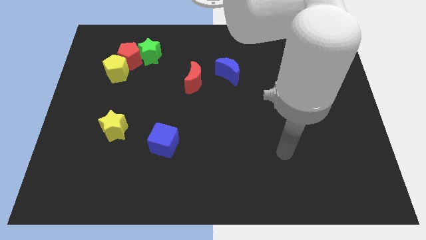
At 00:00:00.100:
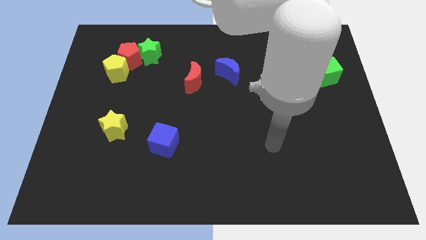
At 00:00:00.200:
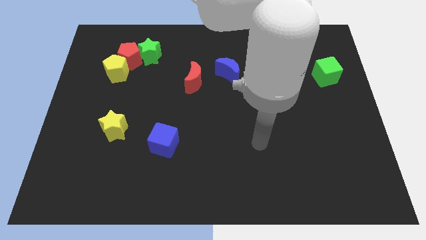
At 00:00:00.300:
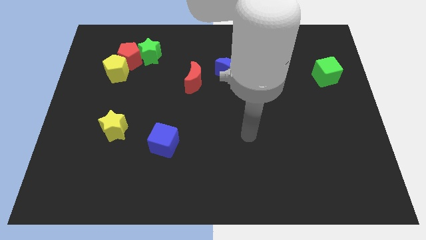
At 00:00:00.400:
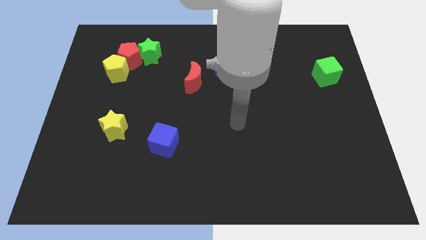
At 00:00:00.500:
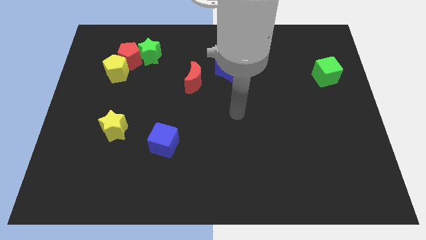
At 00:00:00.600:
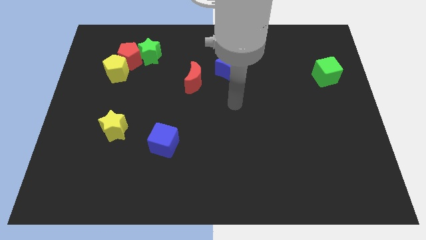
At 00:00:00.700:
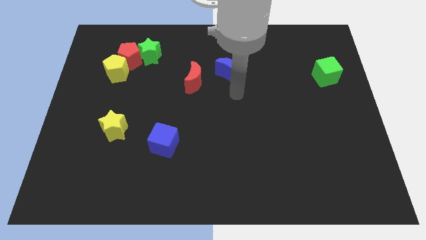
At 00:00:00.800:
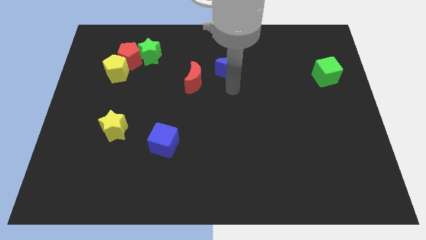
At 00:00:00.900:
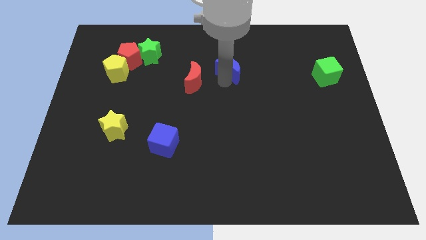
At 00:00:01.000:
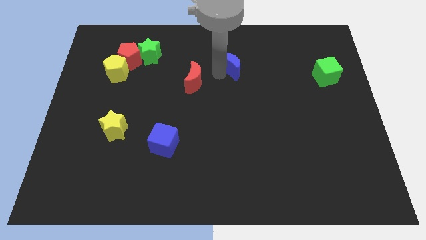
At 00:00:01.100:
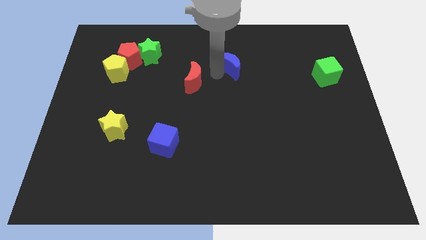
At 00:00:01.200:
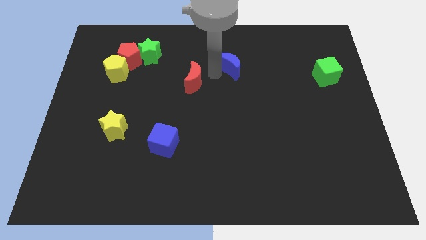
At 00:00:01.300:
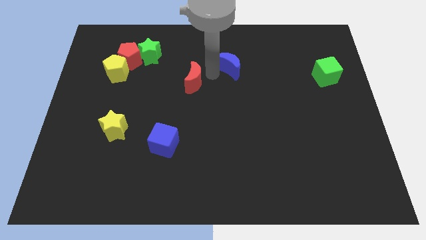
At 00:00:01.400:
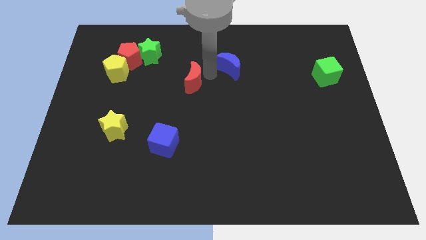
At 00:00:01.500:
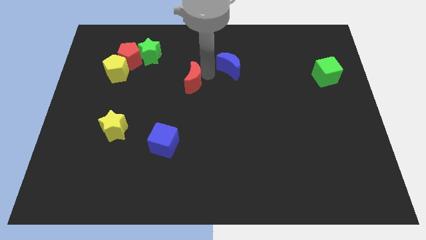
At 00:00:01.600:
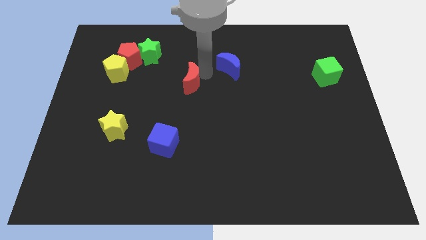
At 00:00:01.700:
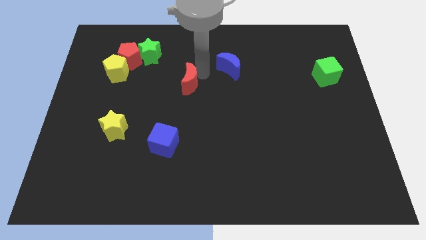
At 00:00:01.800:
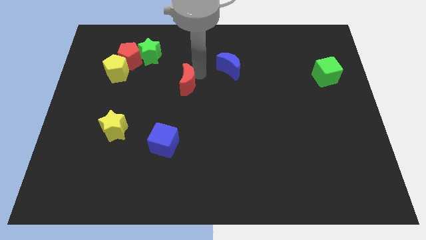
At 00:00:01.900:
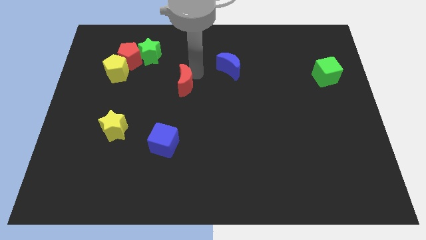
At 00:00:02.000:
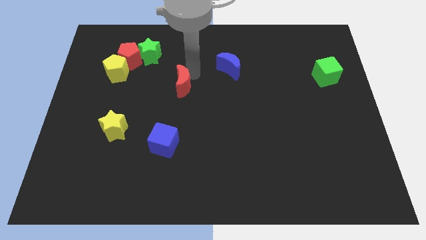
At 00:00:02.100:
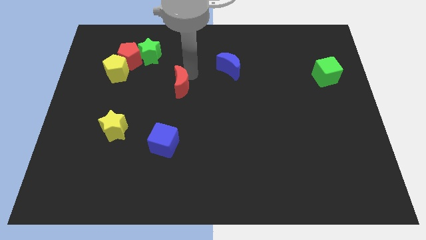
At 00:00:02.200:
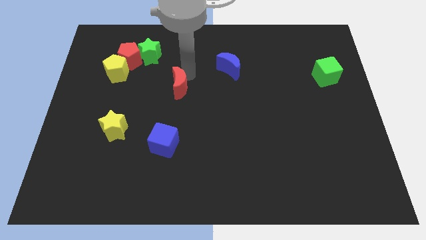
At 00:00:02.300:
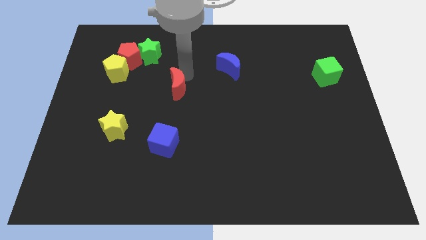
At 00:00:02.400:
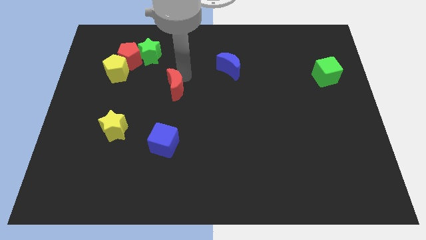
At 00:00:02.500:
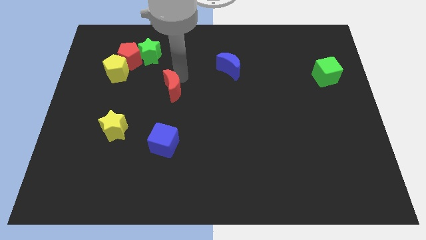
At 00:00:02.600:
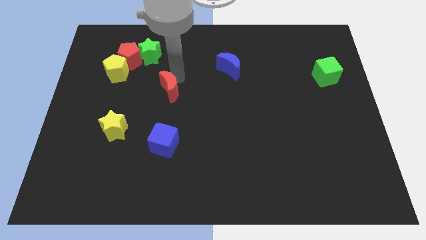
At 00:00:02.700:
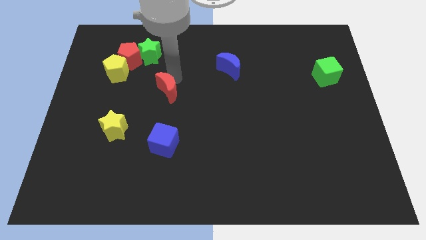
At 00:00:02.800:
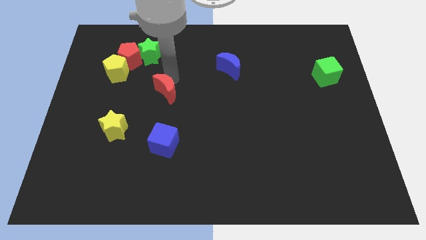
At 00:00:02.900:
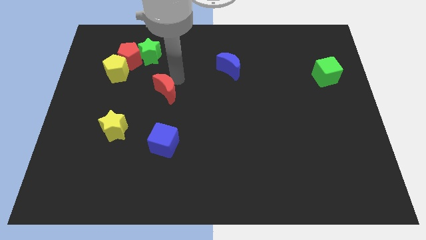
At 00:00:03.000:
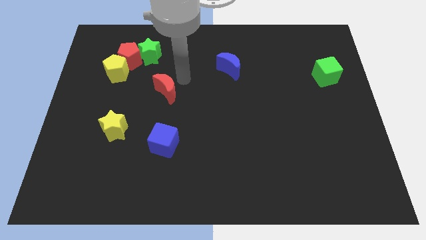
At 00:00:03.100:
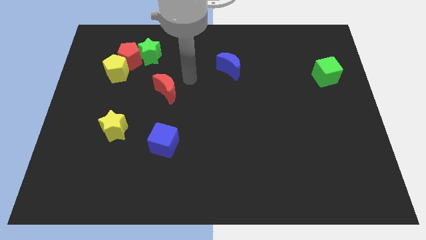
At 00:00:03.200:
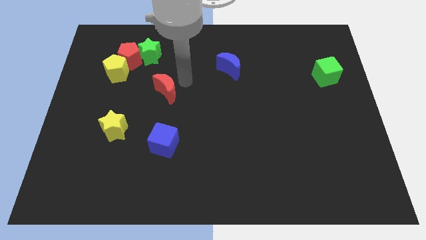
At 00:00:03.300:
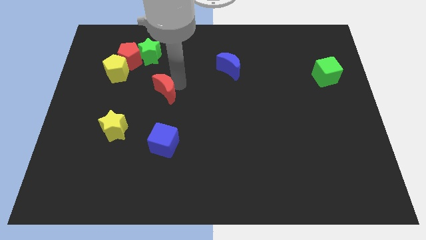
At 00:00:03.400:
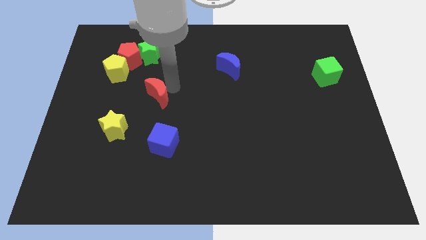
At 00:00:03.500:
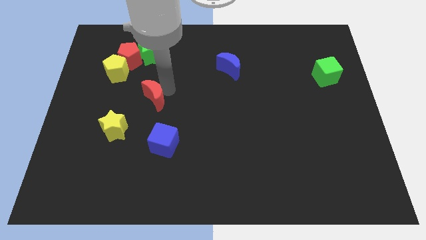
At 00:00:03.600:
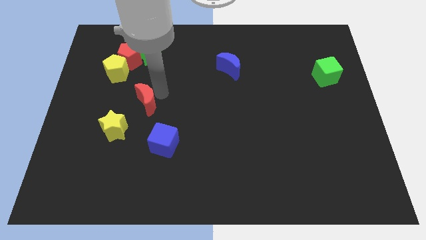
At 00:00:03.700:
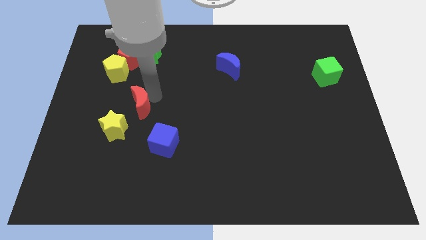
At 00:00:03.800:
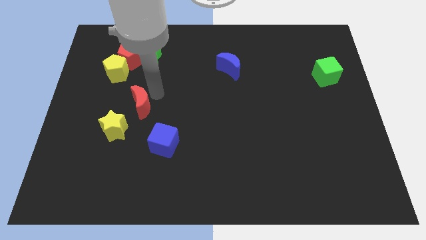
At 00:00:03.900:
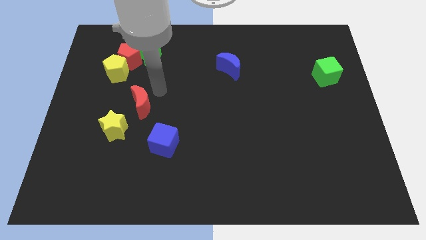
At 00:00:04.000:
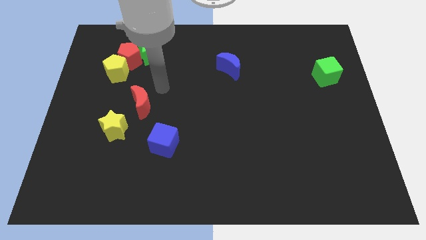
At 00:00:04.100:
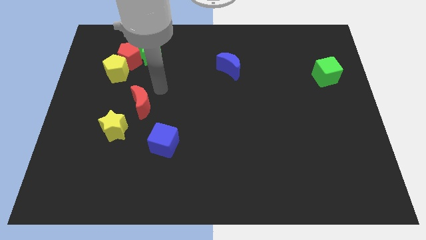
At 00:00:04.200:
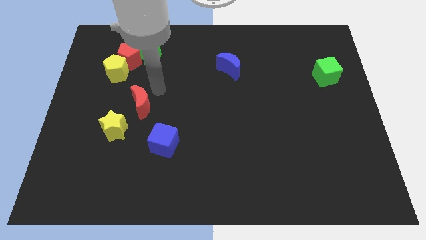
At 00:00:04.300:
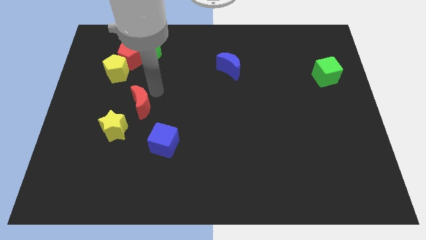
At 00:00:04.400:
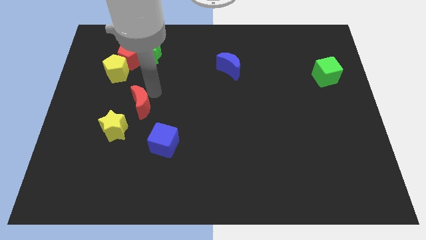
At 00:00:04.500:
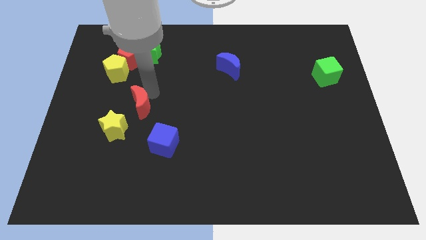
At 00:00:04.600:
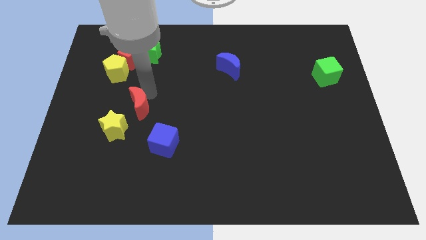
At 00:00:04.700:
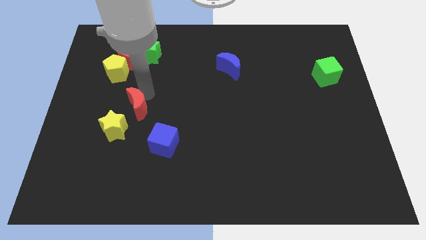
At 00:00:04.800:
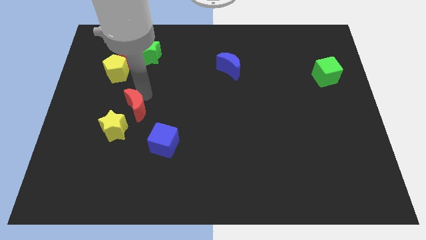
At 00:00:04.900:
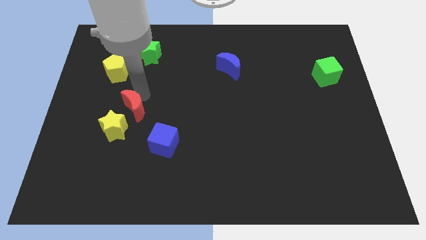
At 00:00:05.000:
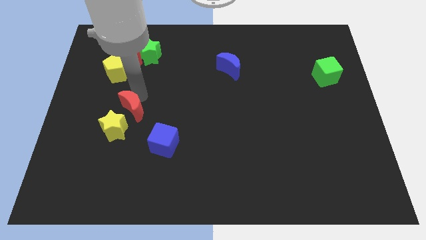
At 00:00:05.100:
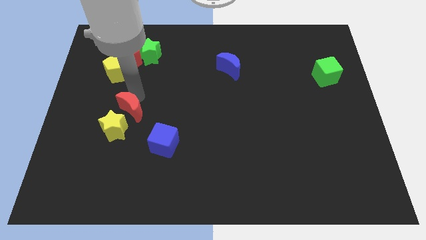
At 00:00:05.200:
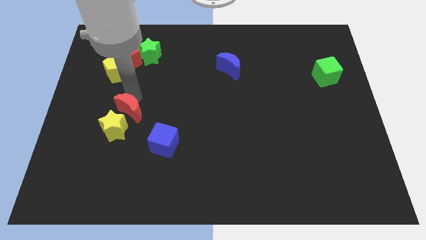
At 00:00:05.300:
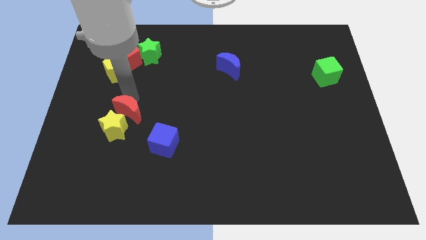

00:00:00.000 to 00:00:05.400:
slide the red moon towards the yellow star

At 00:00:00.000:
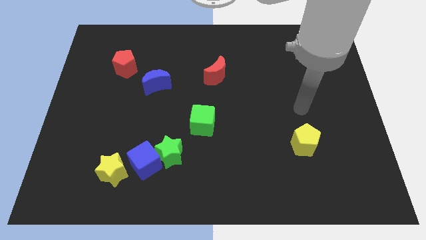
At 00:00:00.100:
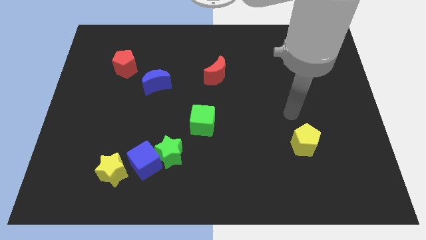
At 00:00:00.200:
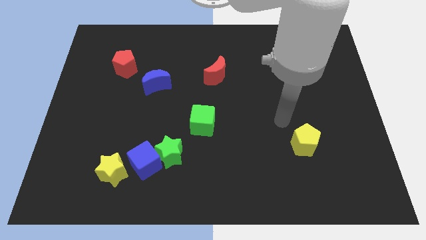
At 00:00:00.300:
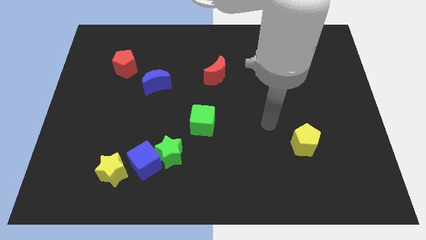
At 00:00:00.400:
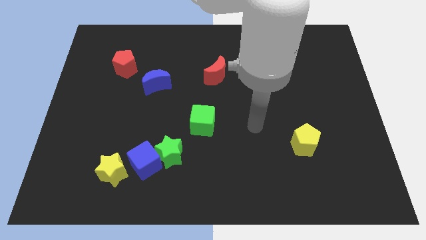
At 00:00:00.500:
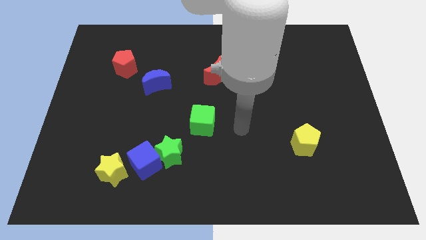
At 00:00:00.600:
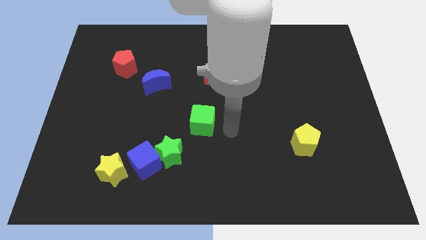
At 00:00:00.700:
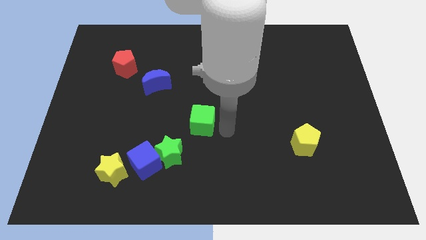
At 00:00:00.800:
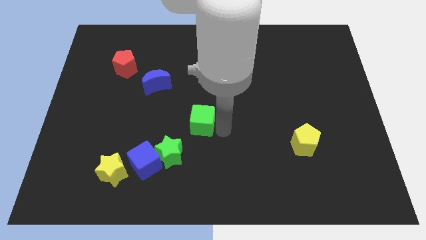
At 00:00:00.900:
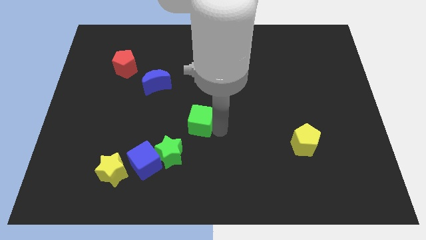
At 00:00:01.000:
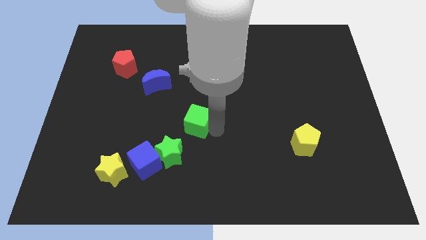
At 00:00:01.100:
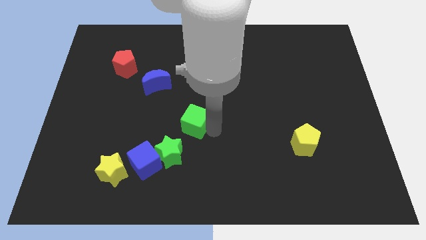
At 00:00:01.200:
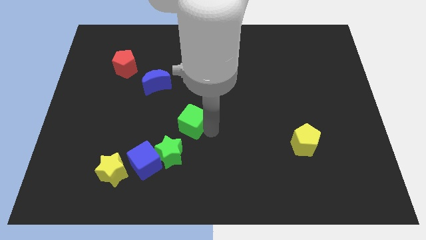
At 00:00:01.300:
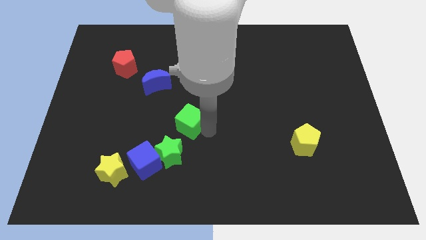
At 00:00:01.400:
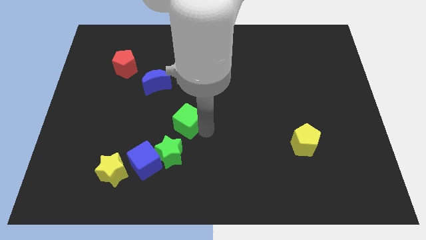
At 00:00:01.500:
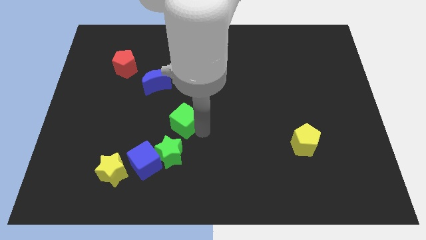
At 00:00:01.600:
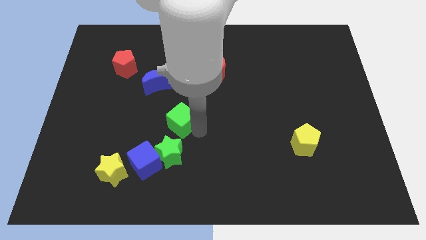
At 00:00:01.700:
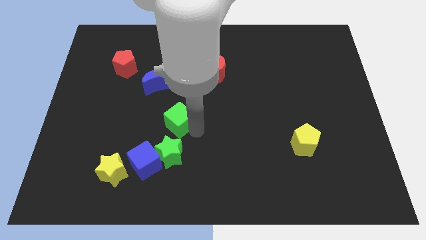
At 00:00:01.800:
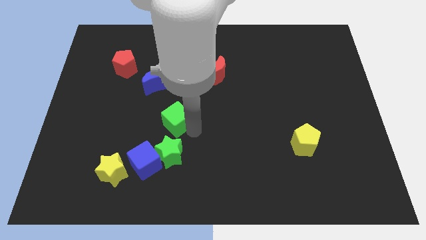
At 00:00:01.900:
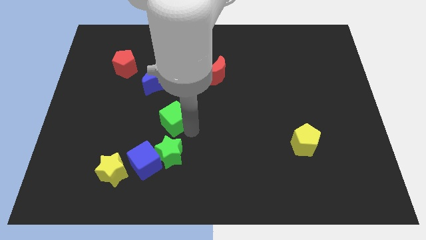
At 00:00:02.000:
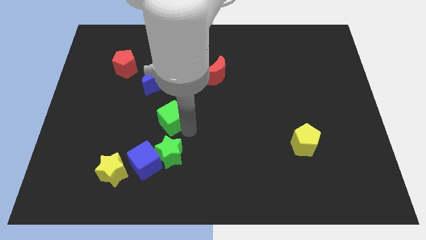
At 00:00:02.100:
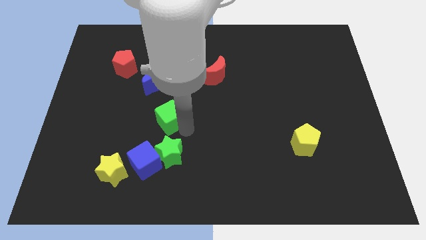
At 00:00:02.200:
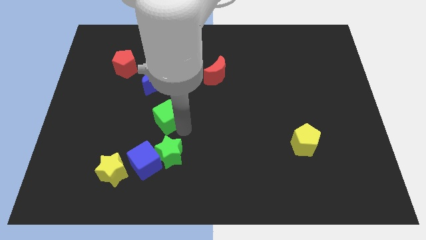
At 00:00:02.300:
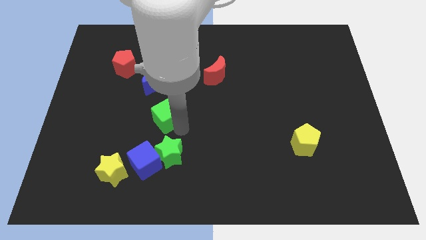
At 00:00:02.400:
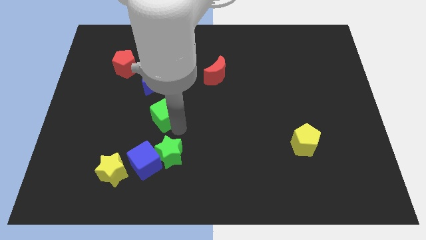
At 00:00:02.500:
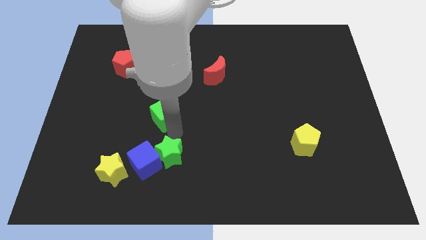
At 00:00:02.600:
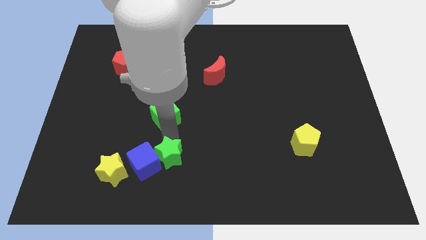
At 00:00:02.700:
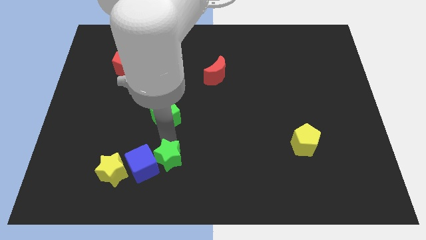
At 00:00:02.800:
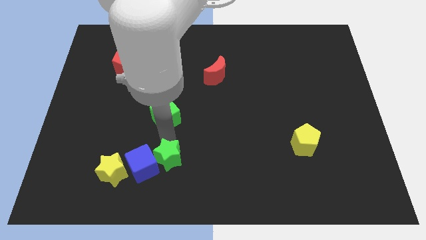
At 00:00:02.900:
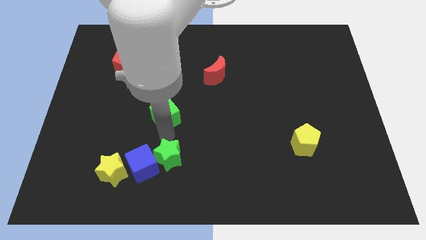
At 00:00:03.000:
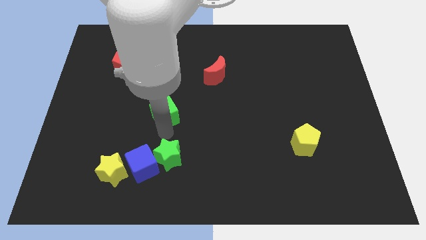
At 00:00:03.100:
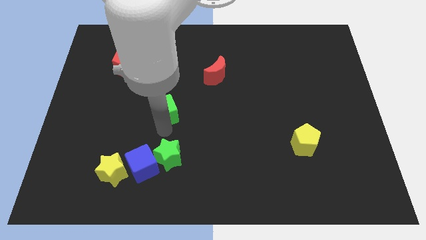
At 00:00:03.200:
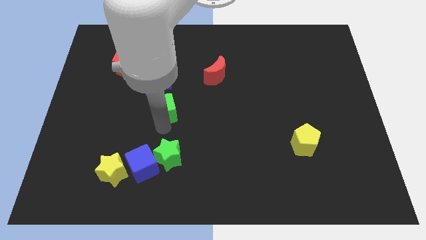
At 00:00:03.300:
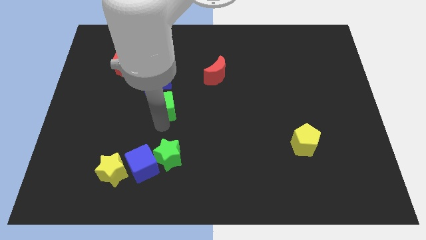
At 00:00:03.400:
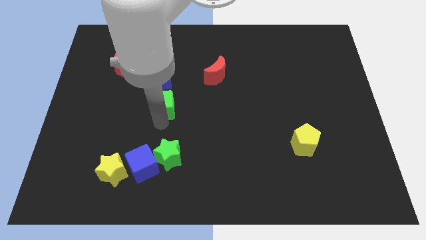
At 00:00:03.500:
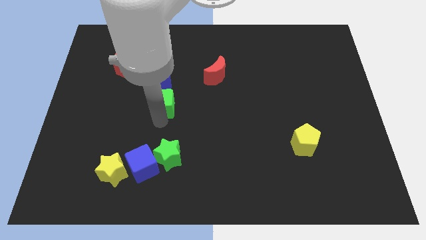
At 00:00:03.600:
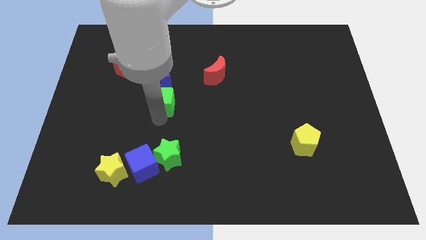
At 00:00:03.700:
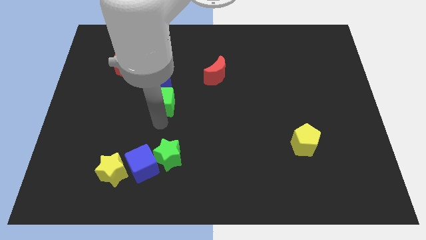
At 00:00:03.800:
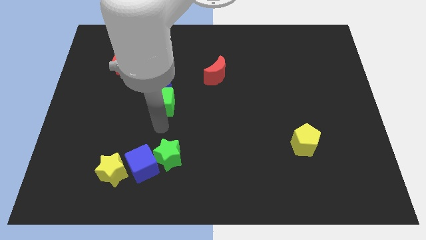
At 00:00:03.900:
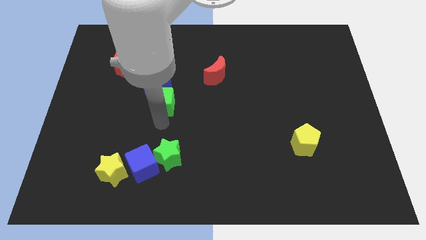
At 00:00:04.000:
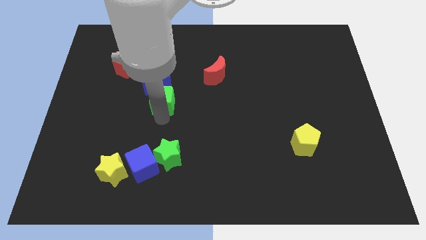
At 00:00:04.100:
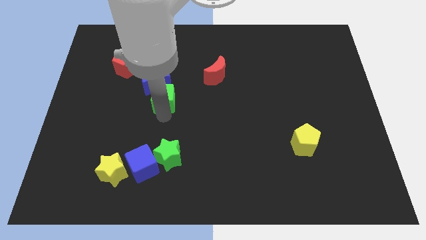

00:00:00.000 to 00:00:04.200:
move the green cube next to the blue moon
